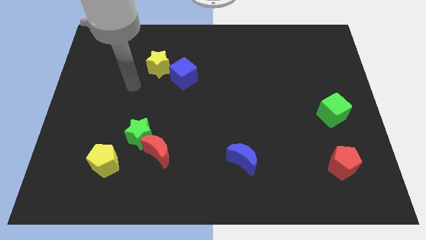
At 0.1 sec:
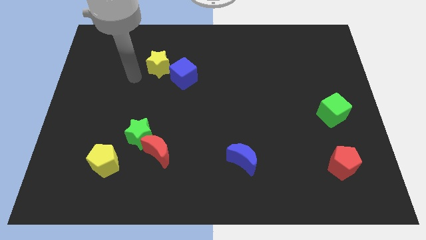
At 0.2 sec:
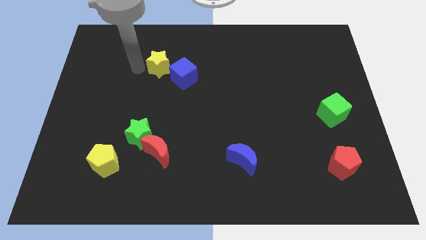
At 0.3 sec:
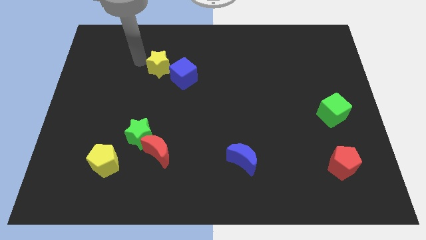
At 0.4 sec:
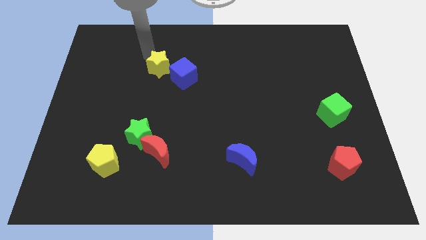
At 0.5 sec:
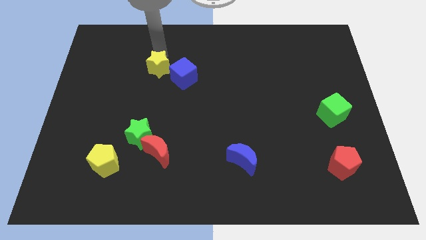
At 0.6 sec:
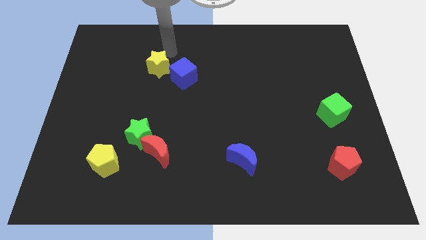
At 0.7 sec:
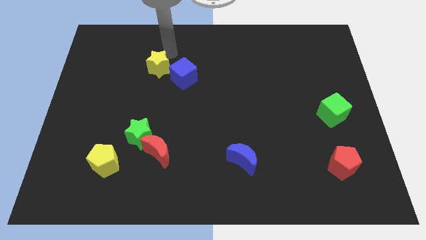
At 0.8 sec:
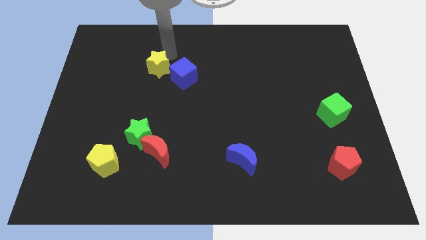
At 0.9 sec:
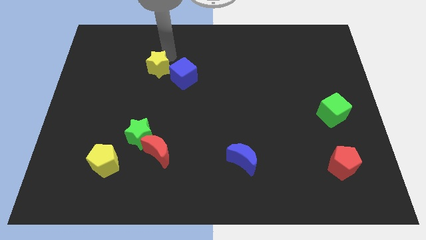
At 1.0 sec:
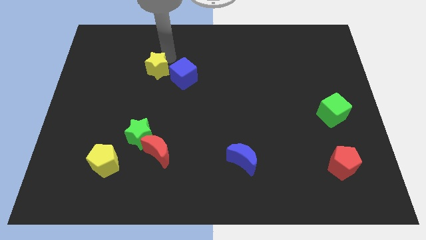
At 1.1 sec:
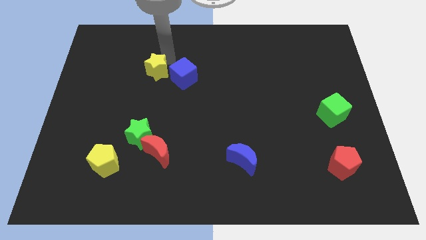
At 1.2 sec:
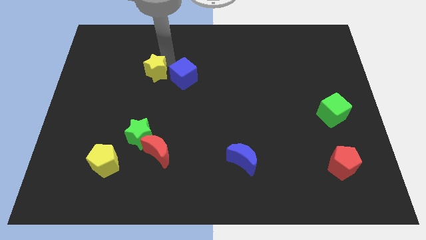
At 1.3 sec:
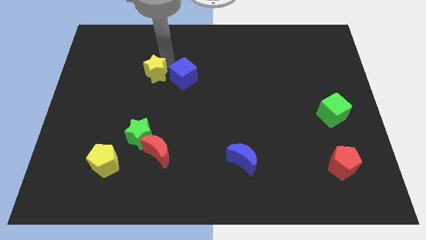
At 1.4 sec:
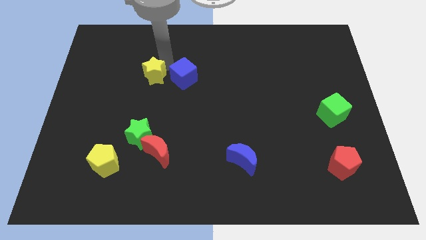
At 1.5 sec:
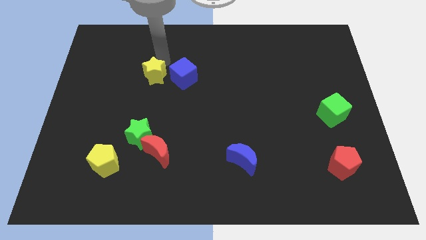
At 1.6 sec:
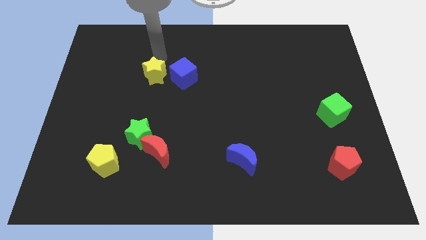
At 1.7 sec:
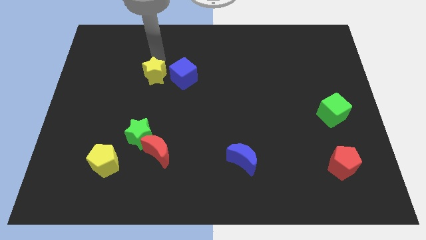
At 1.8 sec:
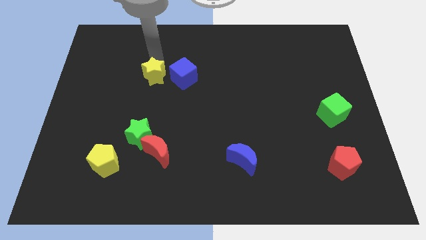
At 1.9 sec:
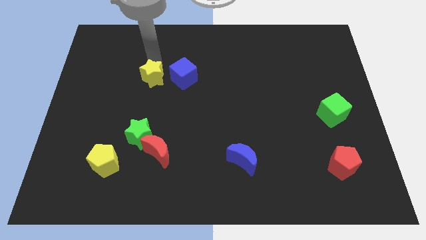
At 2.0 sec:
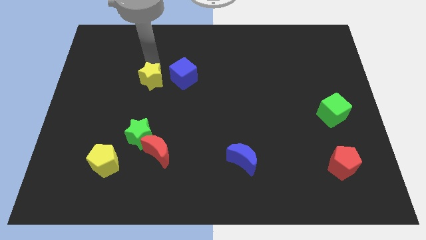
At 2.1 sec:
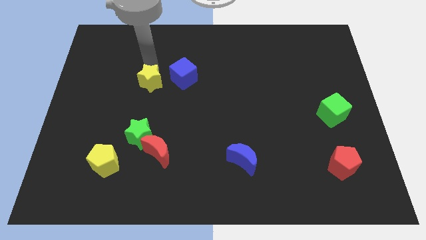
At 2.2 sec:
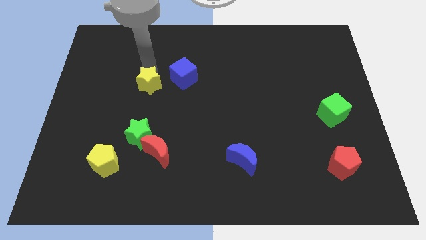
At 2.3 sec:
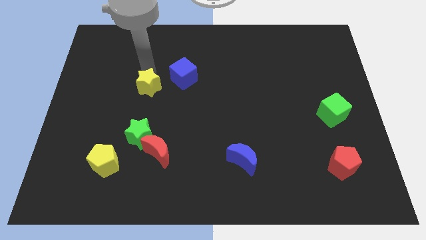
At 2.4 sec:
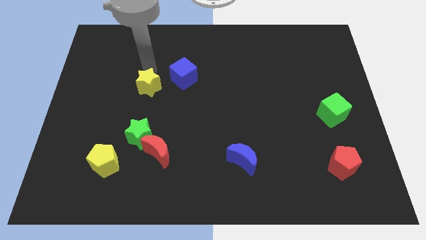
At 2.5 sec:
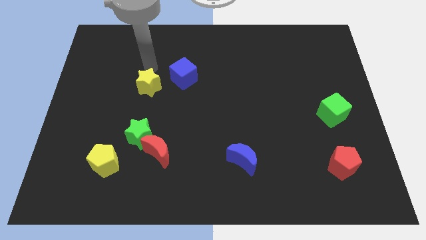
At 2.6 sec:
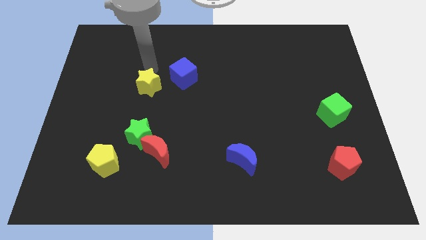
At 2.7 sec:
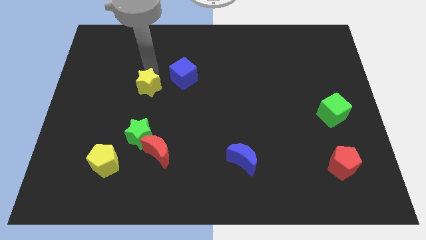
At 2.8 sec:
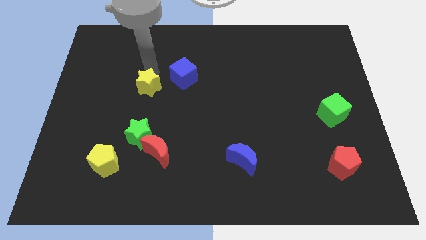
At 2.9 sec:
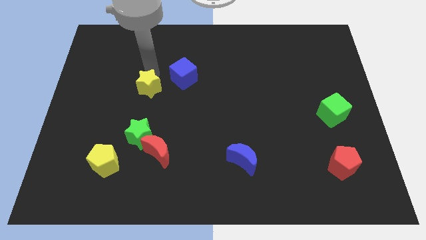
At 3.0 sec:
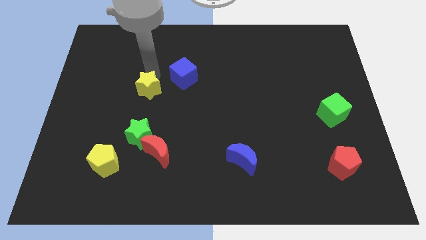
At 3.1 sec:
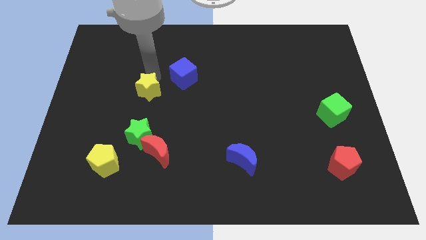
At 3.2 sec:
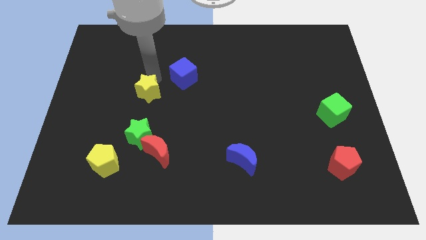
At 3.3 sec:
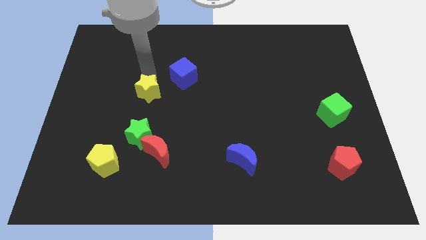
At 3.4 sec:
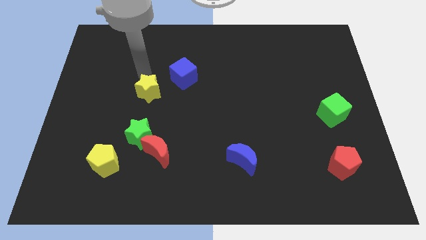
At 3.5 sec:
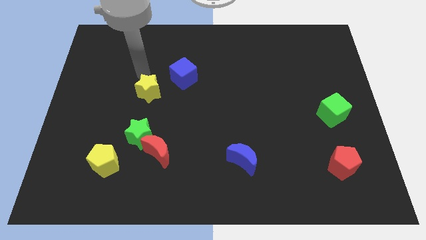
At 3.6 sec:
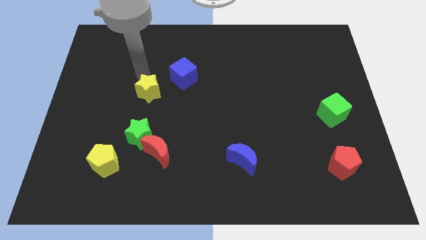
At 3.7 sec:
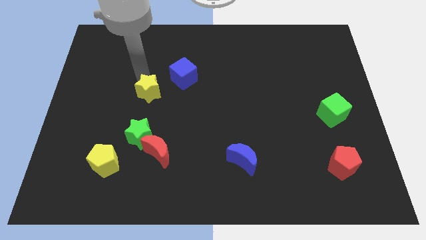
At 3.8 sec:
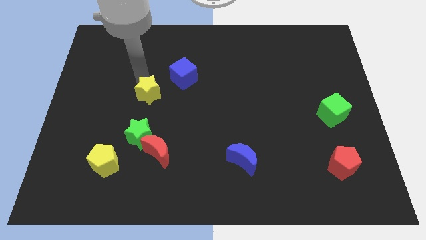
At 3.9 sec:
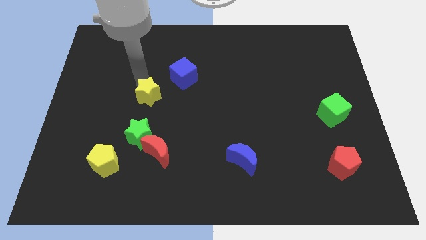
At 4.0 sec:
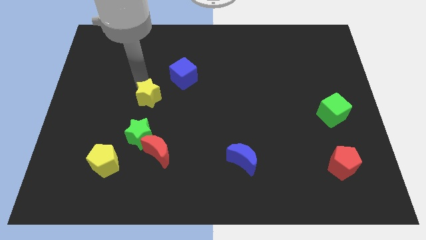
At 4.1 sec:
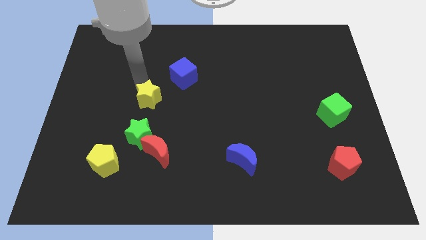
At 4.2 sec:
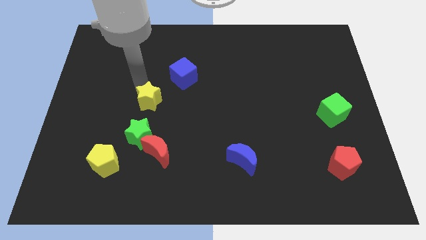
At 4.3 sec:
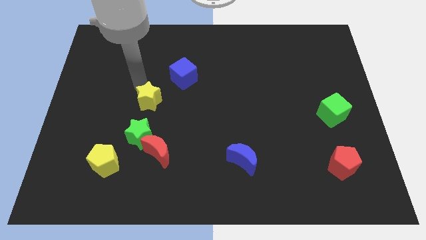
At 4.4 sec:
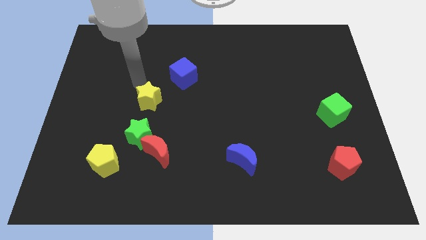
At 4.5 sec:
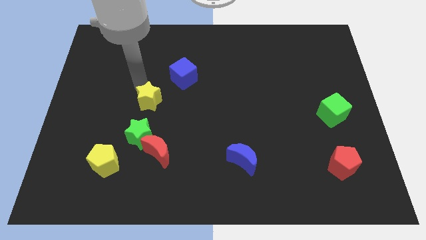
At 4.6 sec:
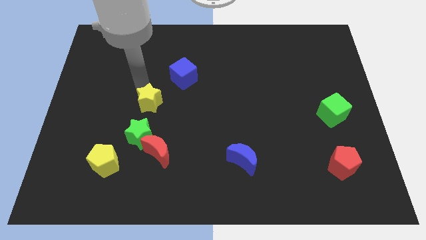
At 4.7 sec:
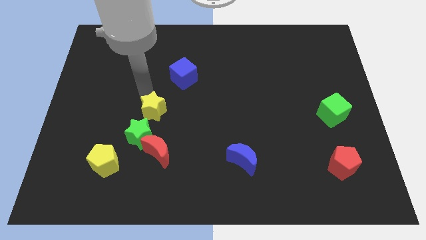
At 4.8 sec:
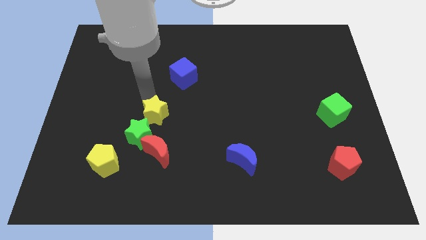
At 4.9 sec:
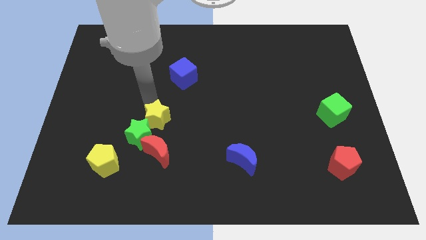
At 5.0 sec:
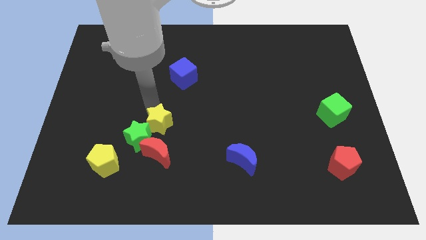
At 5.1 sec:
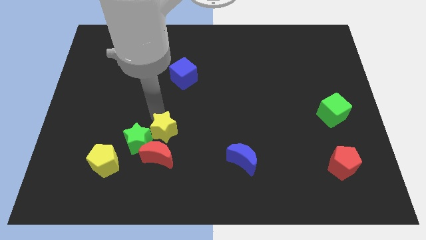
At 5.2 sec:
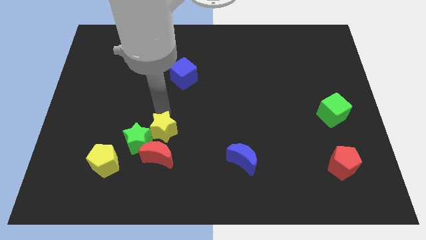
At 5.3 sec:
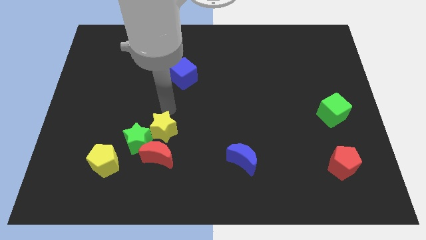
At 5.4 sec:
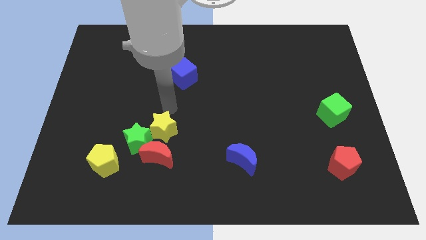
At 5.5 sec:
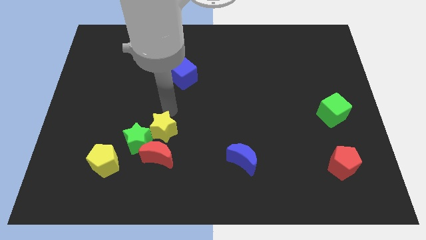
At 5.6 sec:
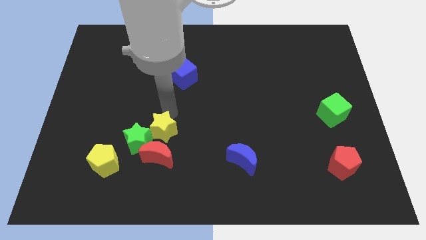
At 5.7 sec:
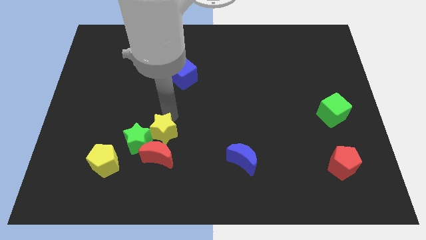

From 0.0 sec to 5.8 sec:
push the yellow star to the red moon

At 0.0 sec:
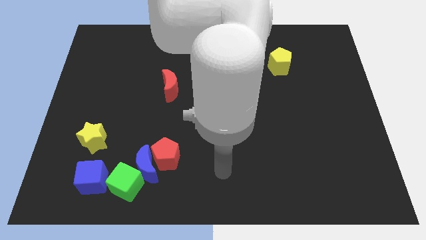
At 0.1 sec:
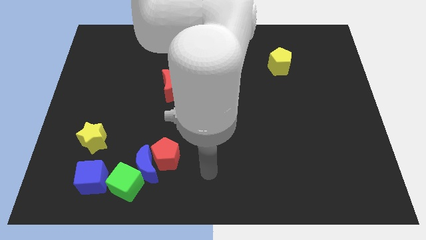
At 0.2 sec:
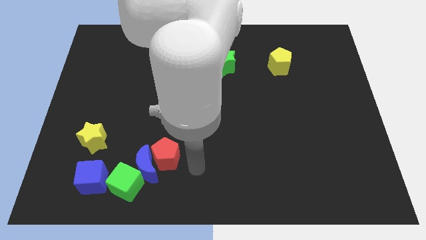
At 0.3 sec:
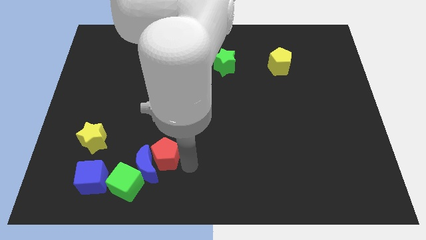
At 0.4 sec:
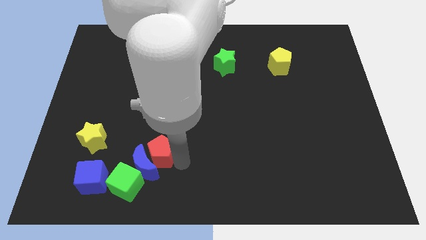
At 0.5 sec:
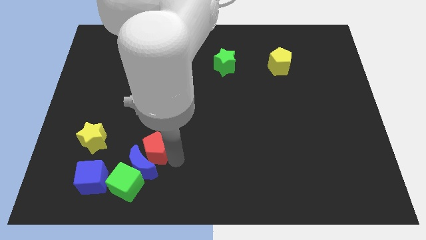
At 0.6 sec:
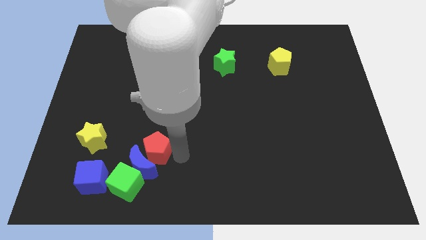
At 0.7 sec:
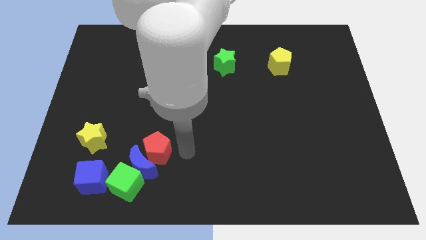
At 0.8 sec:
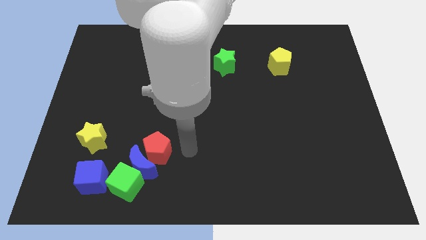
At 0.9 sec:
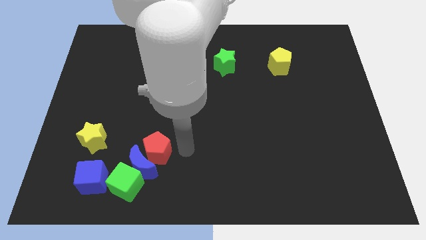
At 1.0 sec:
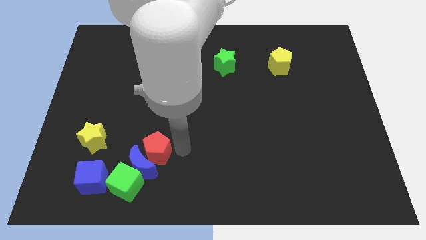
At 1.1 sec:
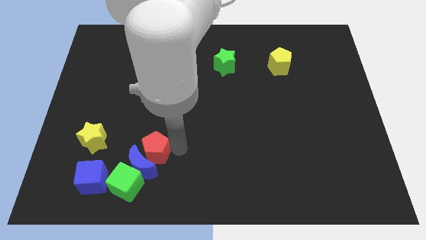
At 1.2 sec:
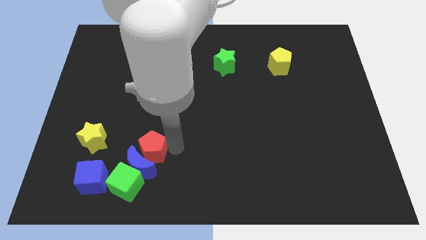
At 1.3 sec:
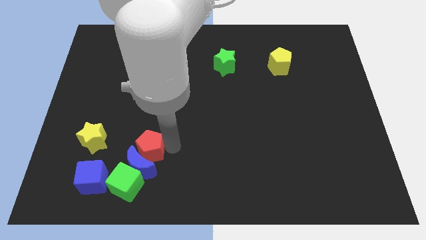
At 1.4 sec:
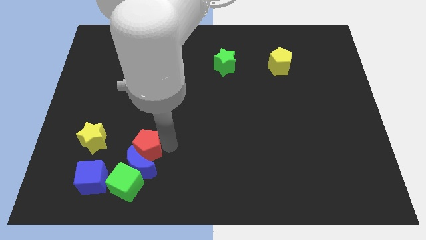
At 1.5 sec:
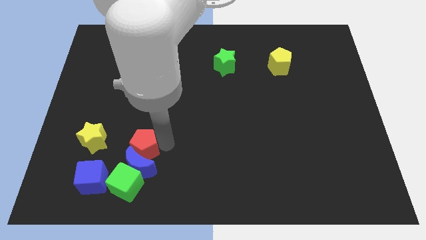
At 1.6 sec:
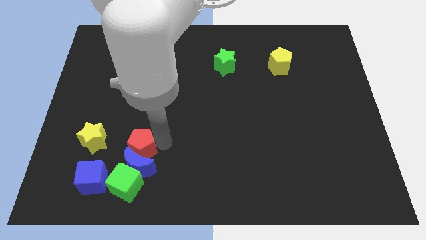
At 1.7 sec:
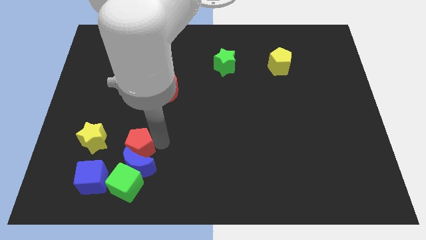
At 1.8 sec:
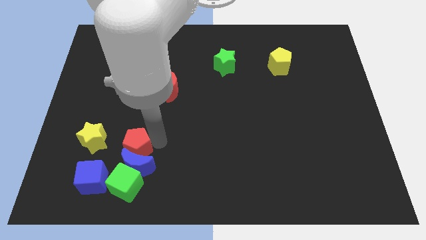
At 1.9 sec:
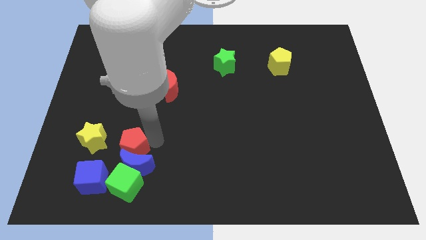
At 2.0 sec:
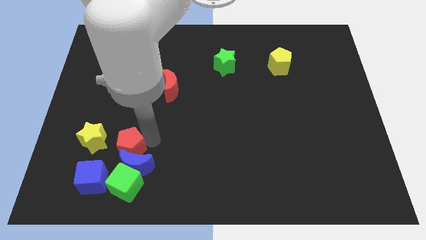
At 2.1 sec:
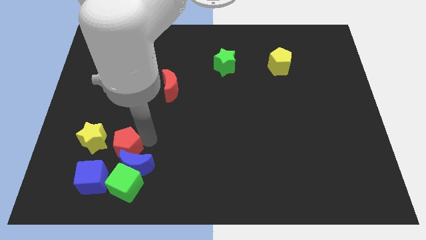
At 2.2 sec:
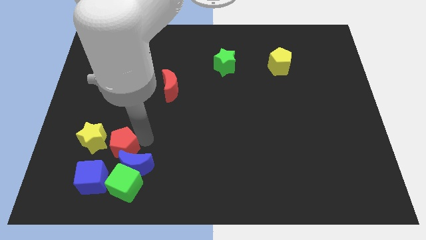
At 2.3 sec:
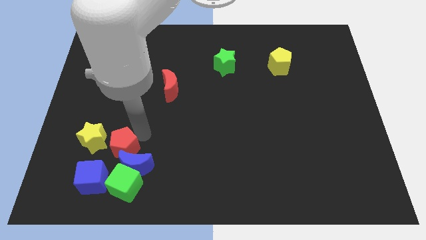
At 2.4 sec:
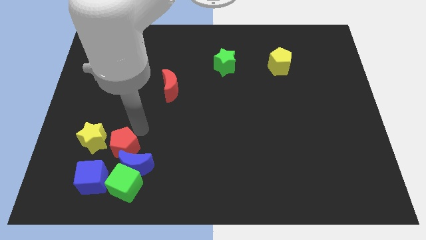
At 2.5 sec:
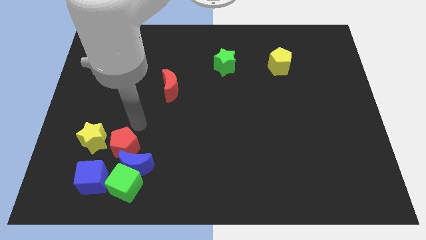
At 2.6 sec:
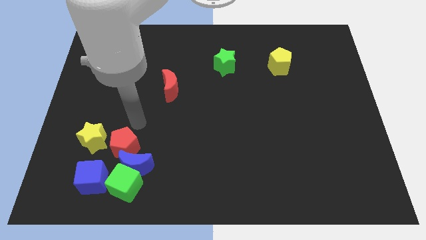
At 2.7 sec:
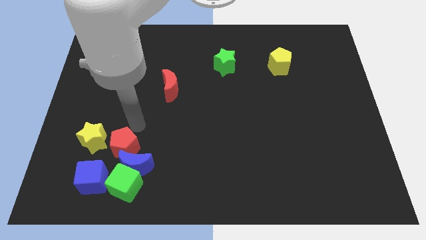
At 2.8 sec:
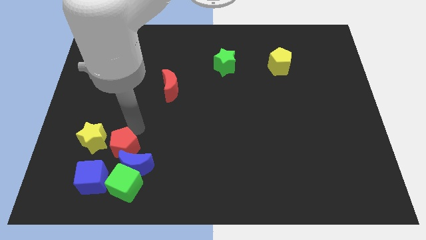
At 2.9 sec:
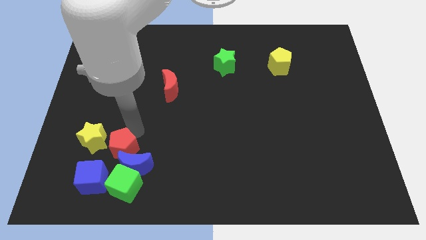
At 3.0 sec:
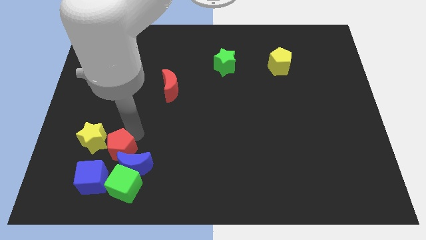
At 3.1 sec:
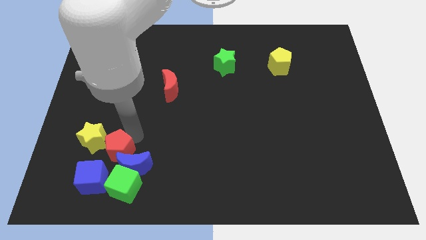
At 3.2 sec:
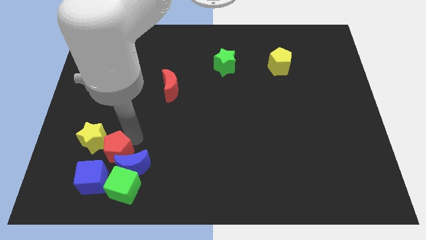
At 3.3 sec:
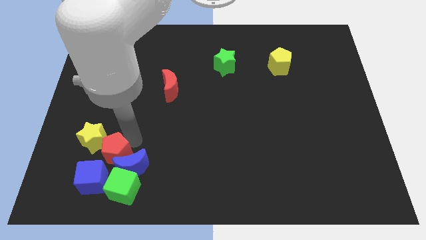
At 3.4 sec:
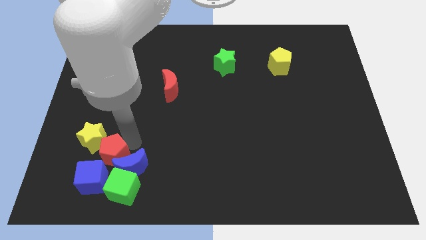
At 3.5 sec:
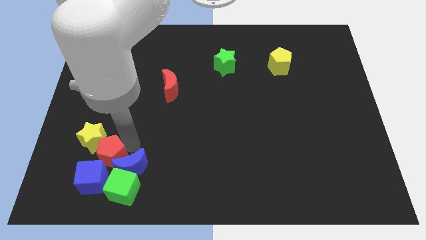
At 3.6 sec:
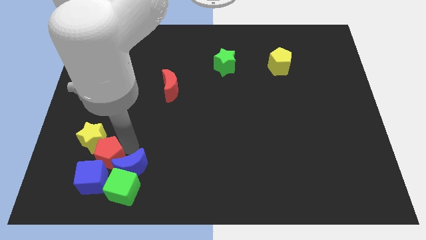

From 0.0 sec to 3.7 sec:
put the red pentagon close to the blue cube
